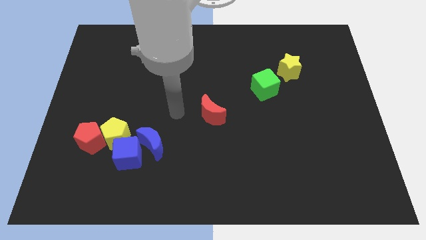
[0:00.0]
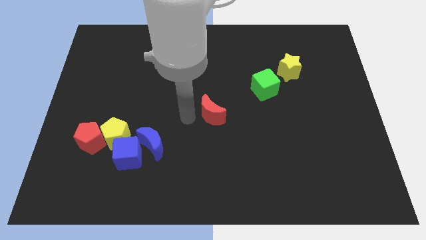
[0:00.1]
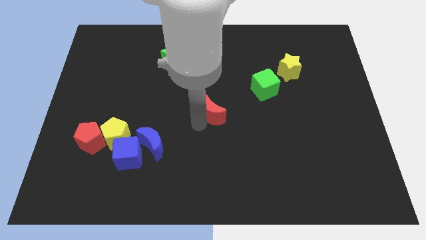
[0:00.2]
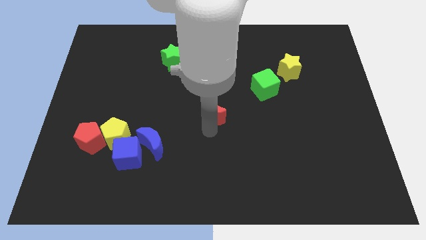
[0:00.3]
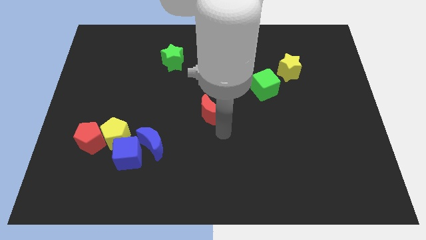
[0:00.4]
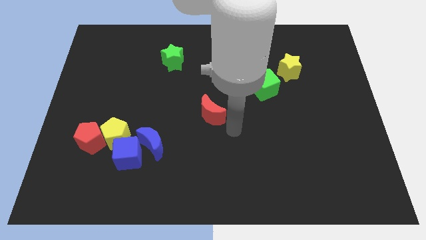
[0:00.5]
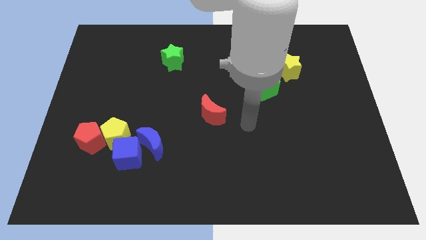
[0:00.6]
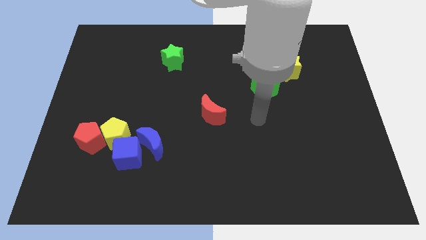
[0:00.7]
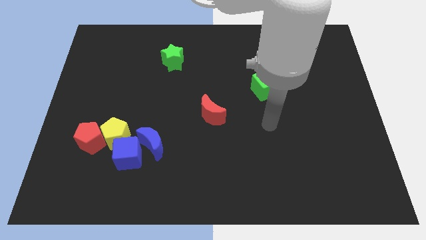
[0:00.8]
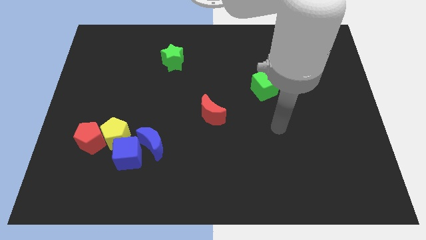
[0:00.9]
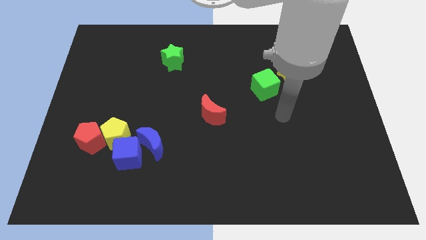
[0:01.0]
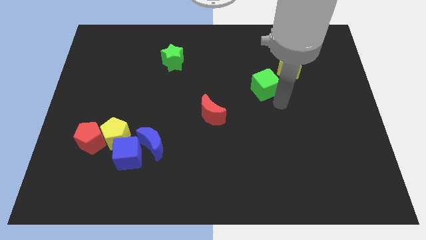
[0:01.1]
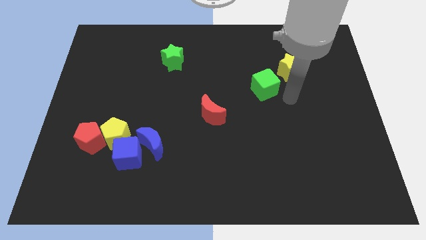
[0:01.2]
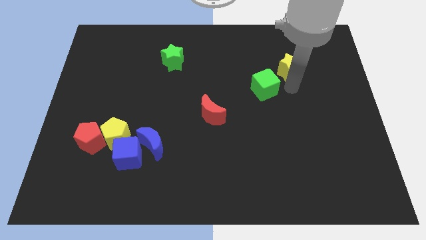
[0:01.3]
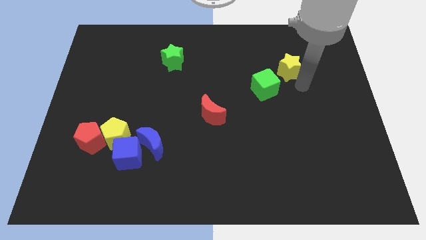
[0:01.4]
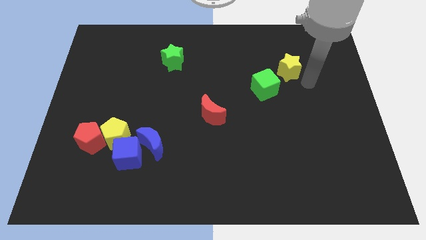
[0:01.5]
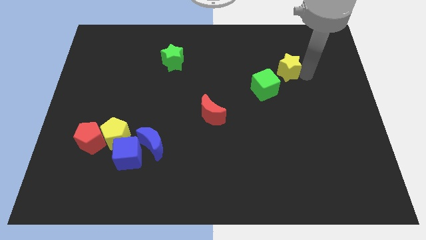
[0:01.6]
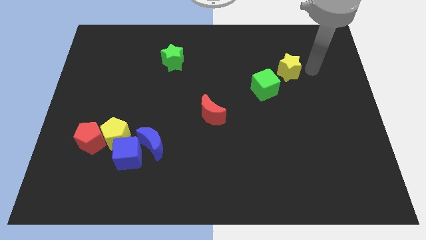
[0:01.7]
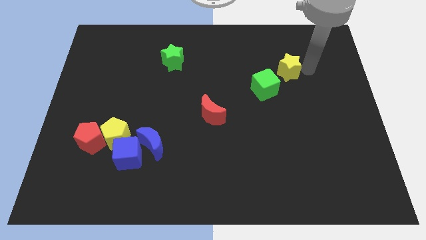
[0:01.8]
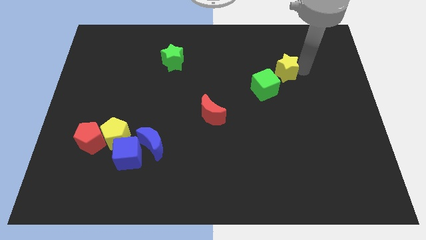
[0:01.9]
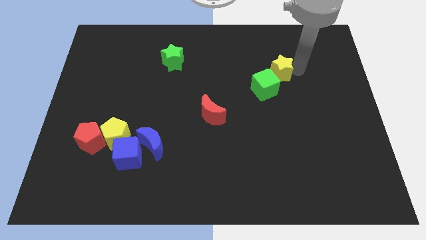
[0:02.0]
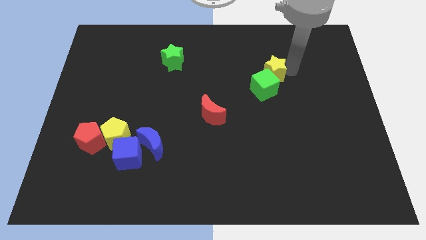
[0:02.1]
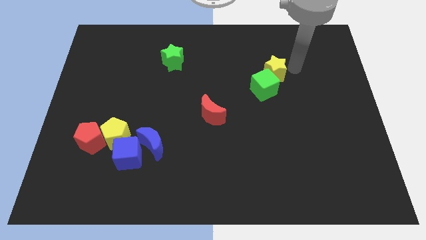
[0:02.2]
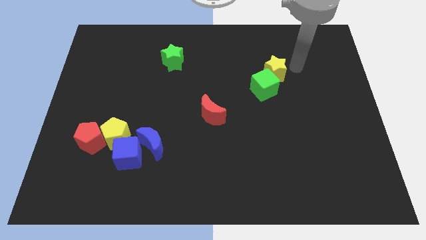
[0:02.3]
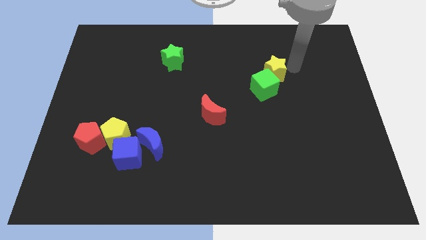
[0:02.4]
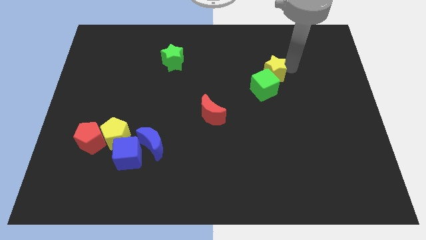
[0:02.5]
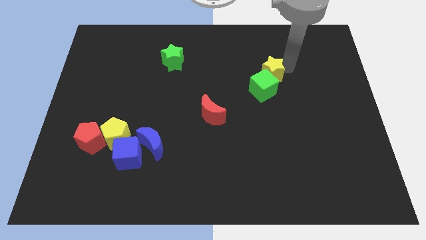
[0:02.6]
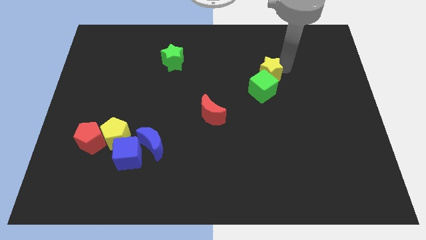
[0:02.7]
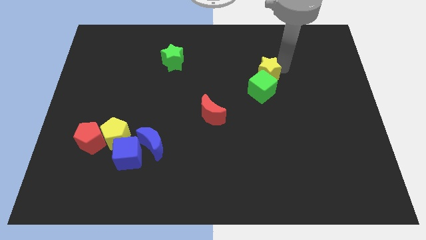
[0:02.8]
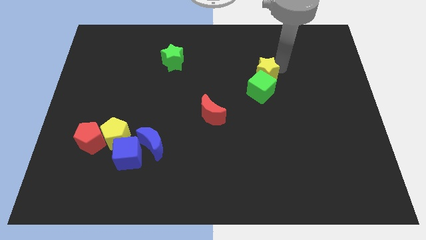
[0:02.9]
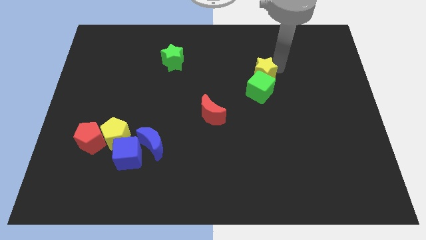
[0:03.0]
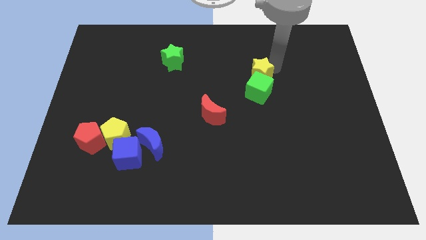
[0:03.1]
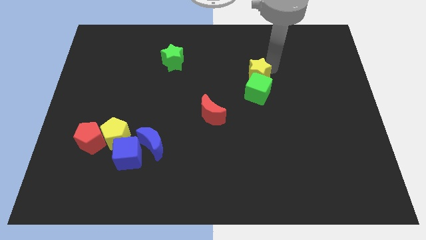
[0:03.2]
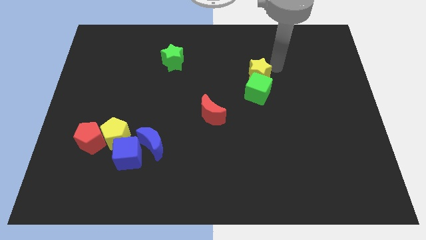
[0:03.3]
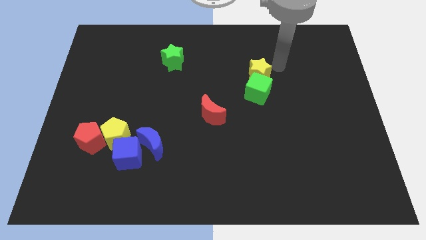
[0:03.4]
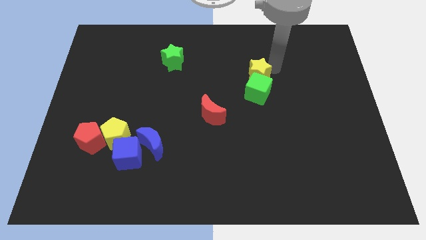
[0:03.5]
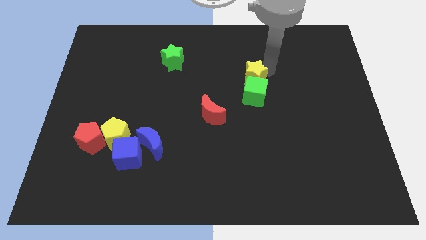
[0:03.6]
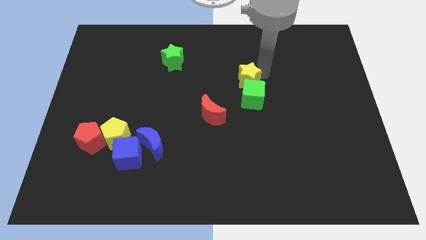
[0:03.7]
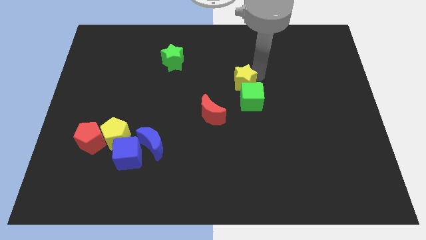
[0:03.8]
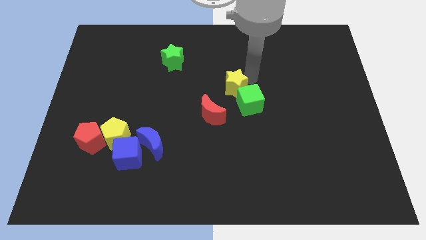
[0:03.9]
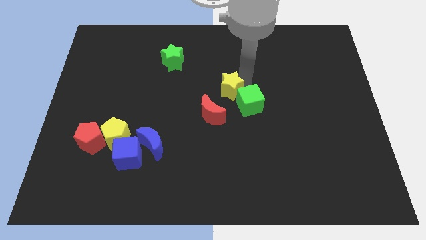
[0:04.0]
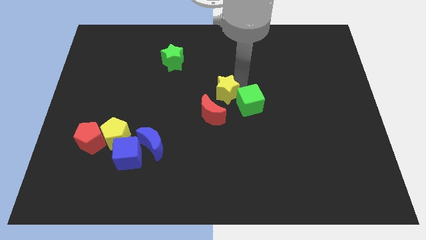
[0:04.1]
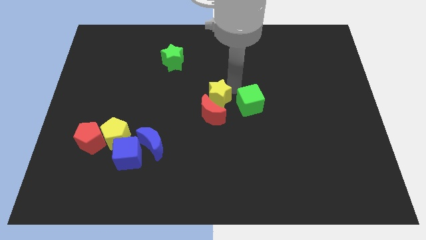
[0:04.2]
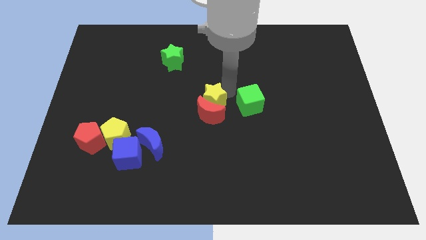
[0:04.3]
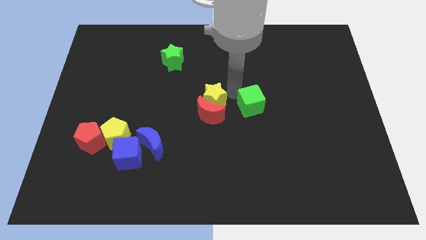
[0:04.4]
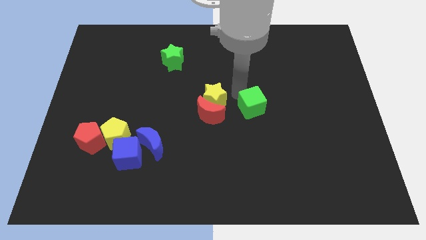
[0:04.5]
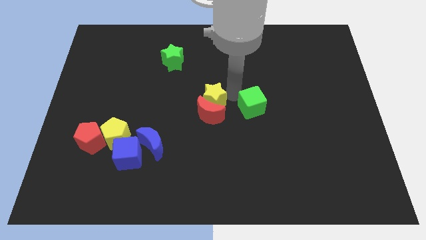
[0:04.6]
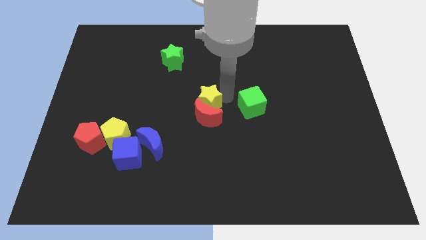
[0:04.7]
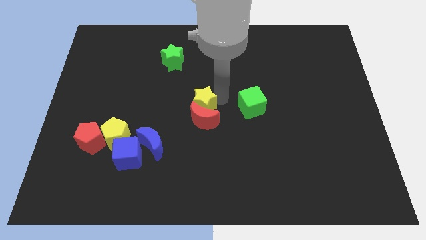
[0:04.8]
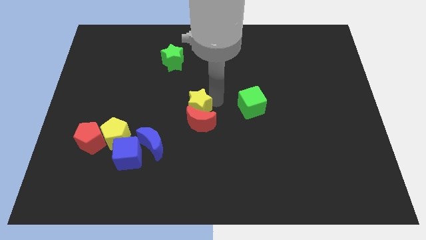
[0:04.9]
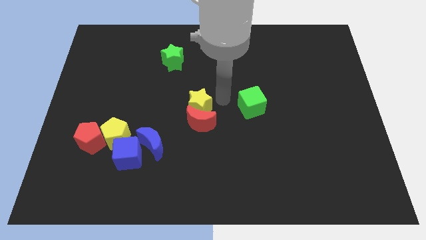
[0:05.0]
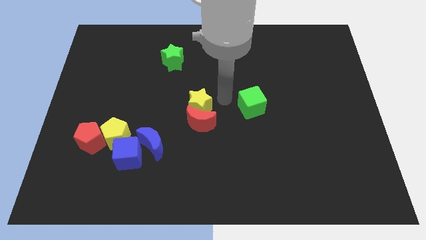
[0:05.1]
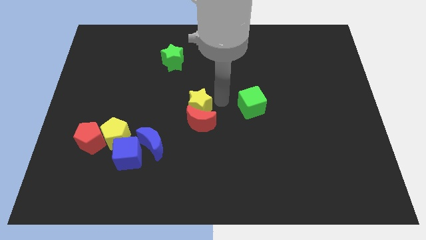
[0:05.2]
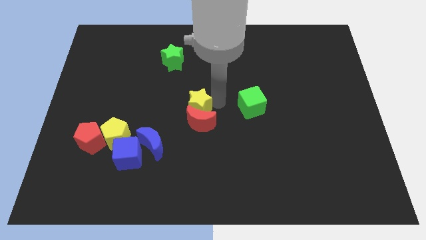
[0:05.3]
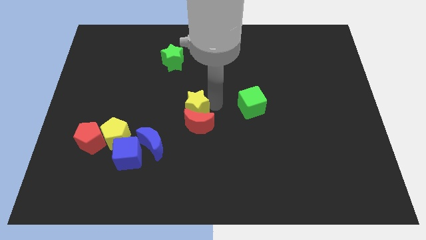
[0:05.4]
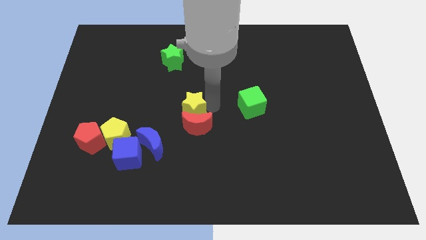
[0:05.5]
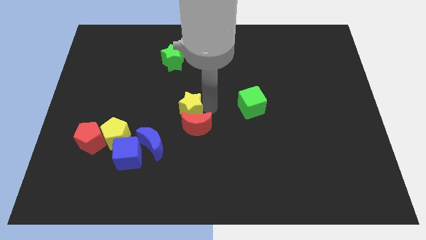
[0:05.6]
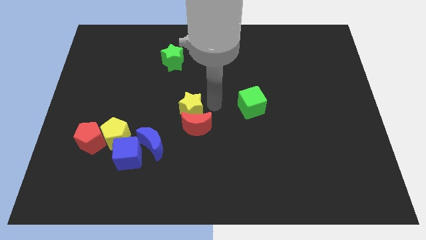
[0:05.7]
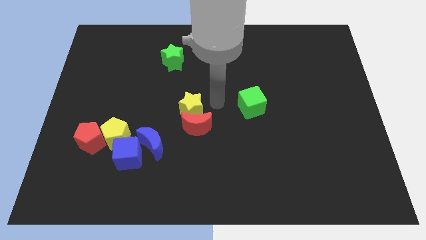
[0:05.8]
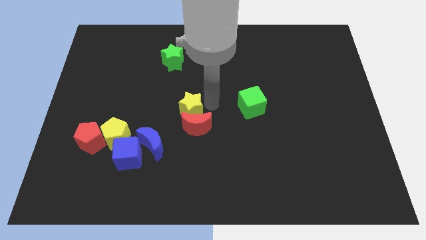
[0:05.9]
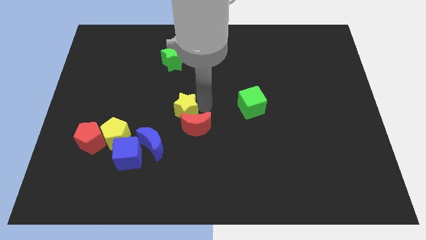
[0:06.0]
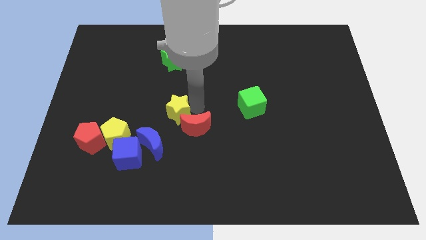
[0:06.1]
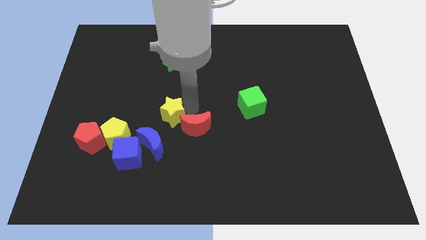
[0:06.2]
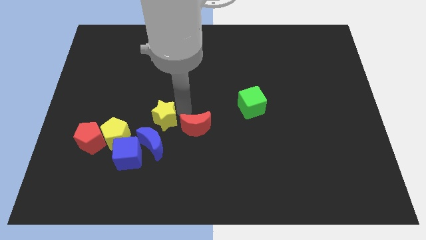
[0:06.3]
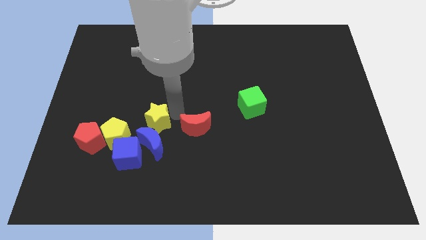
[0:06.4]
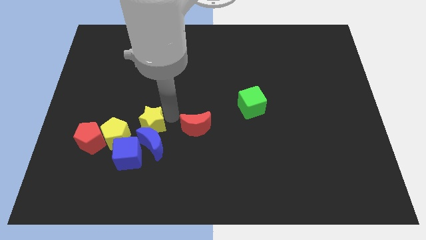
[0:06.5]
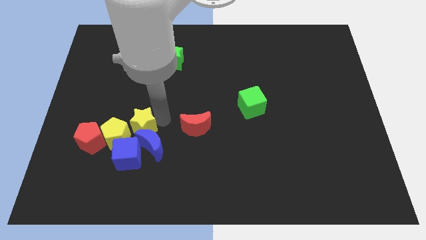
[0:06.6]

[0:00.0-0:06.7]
push the yellow star towards the yellow pentagon

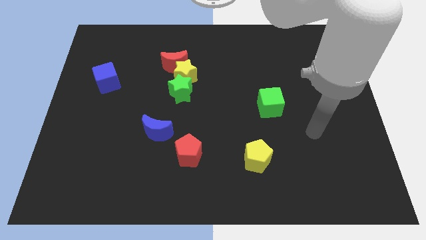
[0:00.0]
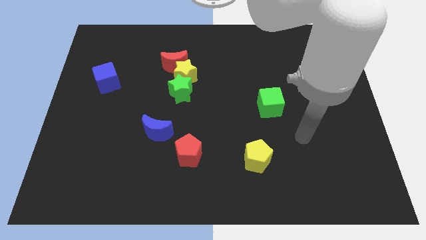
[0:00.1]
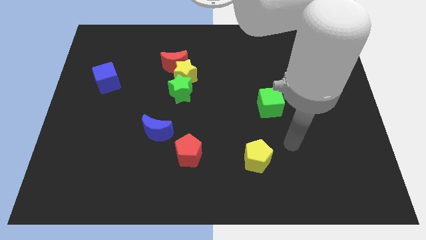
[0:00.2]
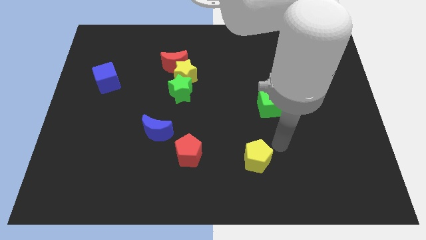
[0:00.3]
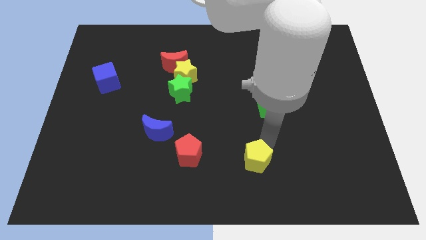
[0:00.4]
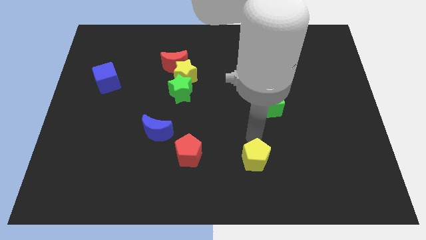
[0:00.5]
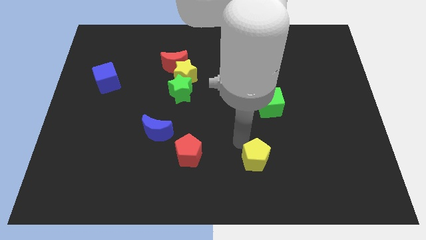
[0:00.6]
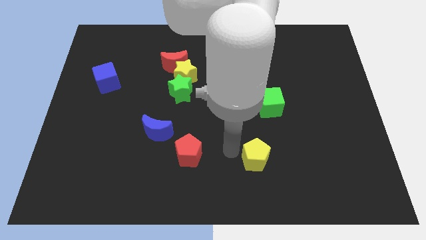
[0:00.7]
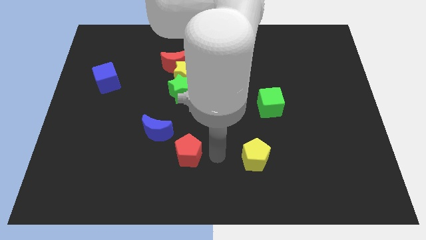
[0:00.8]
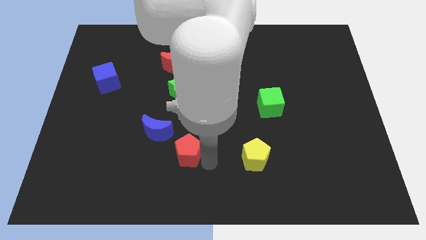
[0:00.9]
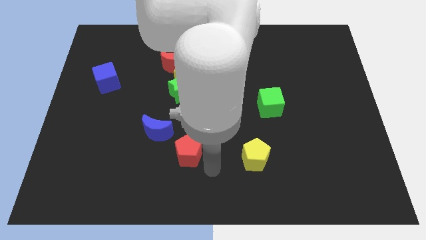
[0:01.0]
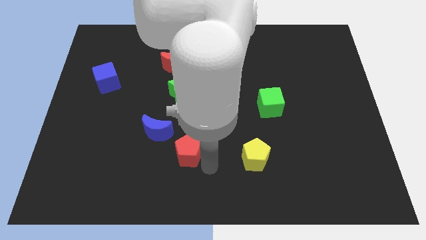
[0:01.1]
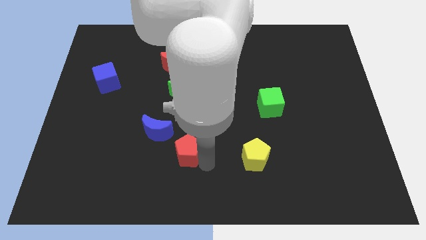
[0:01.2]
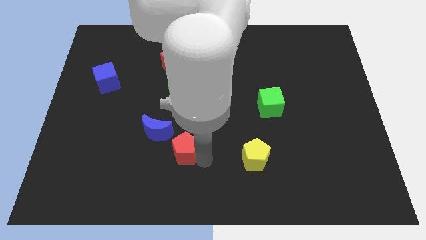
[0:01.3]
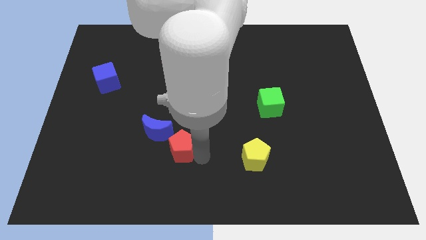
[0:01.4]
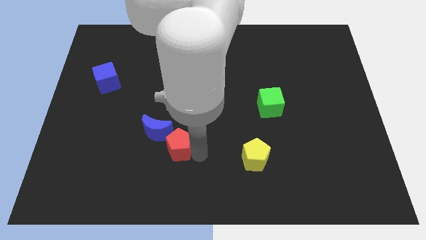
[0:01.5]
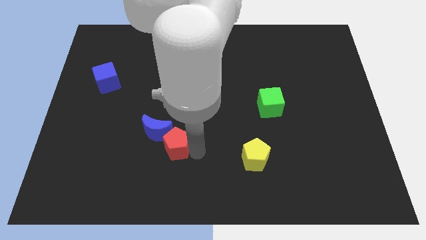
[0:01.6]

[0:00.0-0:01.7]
put the red pentagon towards the blue moon
